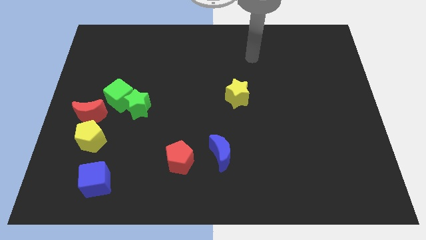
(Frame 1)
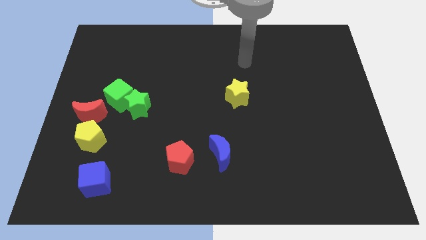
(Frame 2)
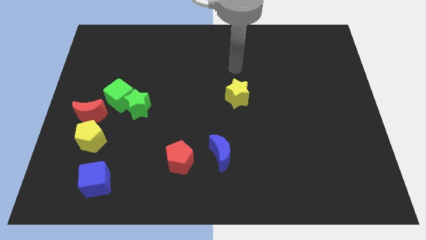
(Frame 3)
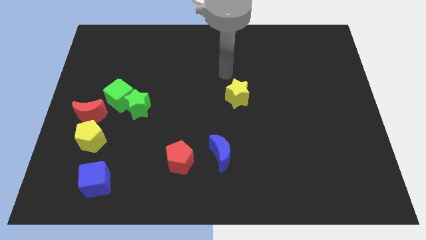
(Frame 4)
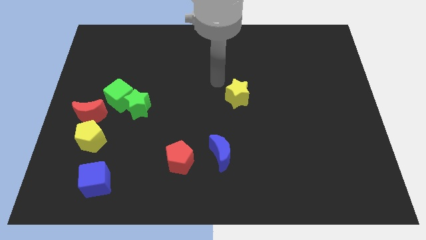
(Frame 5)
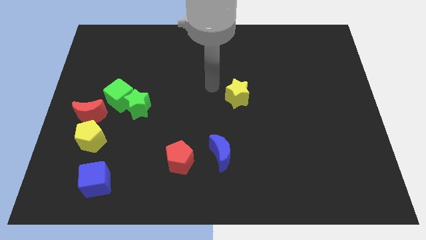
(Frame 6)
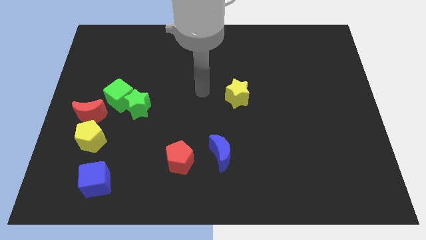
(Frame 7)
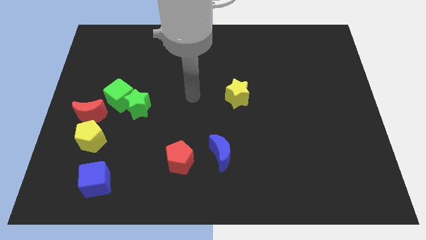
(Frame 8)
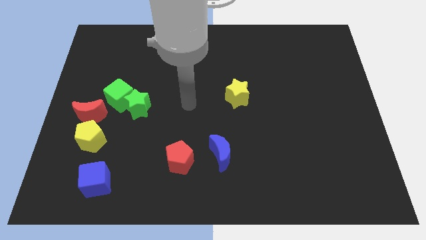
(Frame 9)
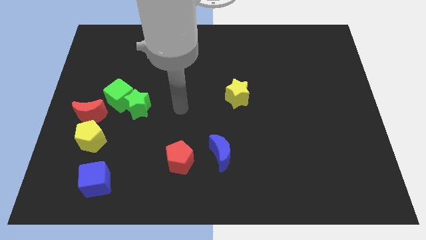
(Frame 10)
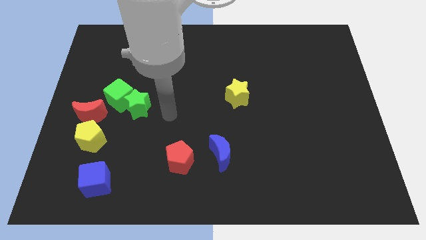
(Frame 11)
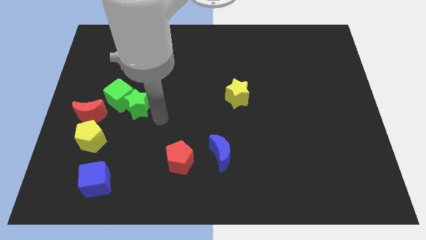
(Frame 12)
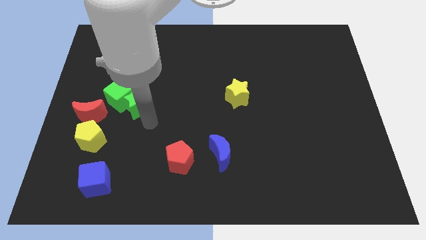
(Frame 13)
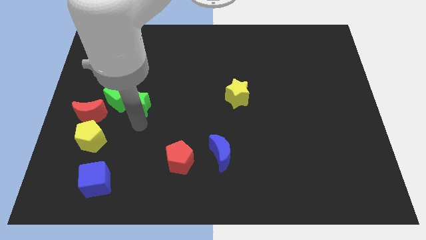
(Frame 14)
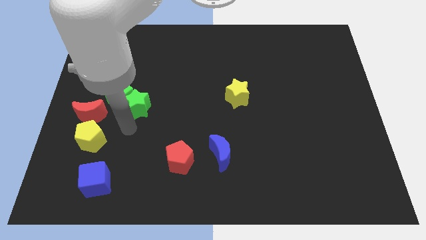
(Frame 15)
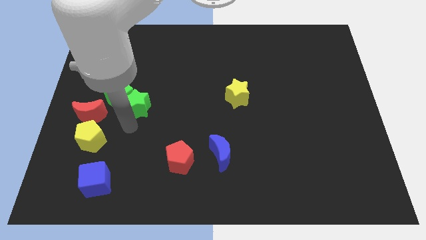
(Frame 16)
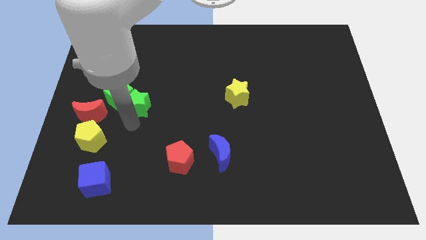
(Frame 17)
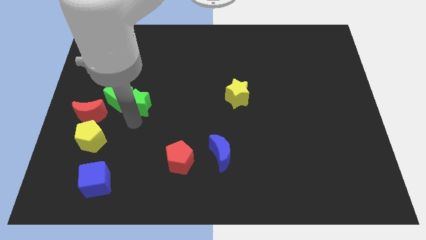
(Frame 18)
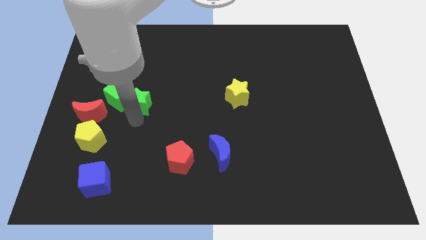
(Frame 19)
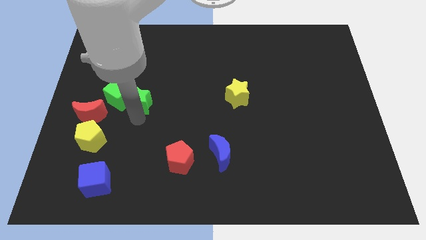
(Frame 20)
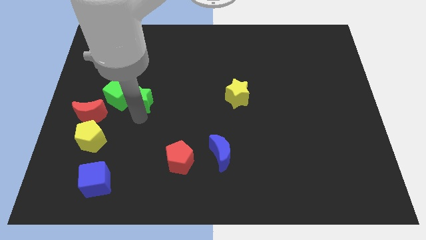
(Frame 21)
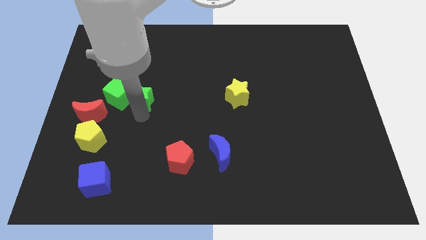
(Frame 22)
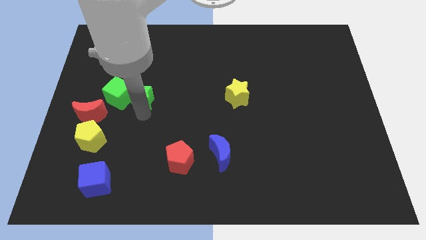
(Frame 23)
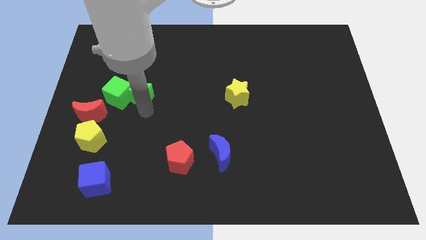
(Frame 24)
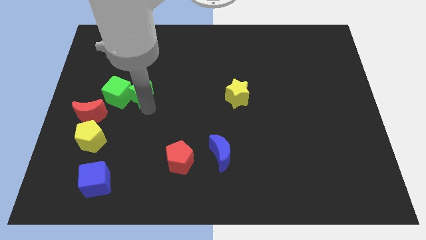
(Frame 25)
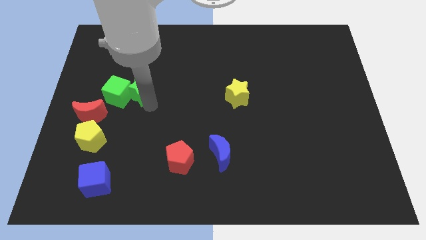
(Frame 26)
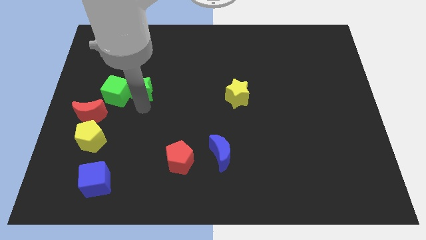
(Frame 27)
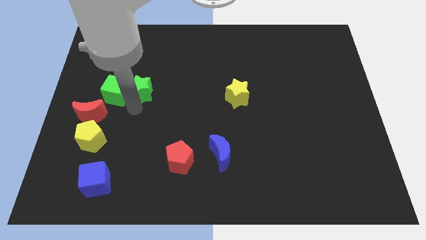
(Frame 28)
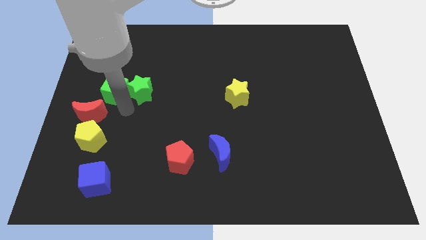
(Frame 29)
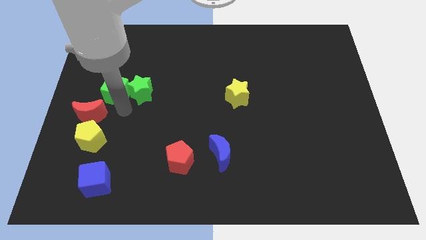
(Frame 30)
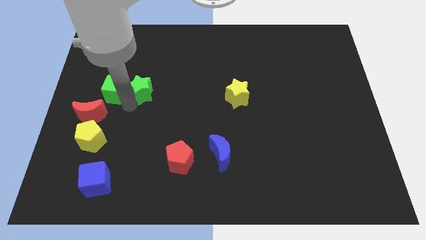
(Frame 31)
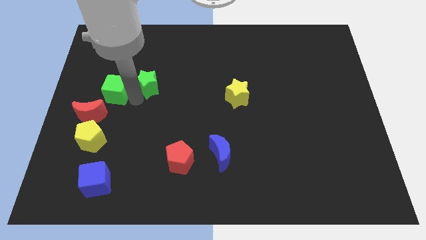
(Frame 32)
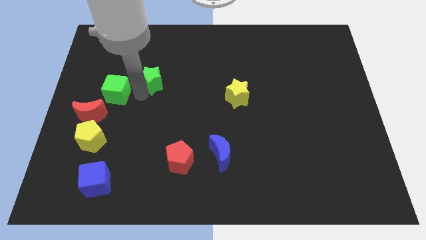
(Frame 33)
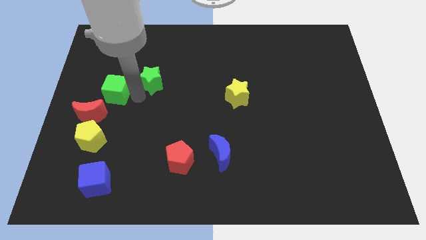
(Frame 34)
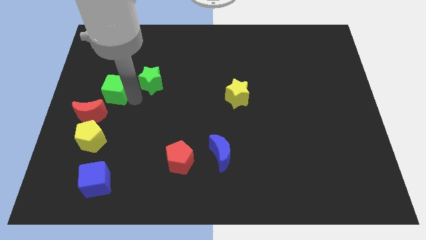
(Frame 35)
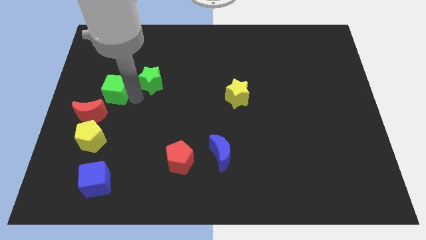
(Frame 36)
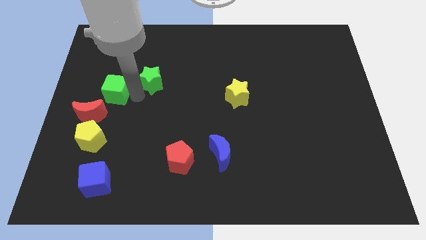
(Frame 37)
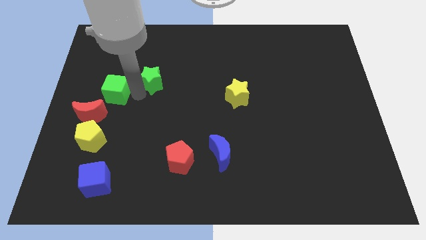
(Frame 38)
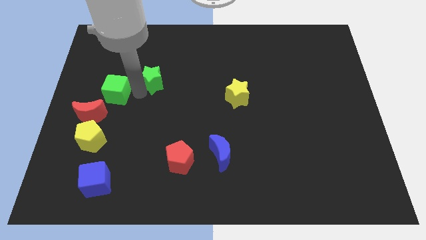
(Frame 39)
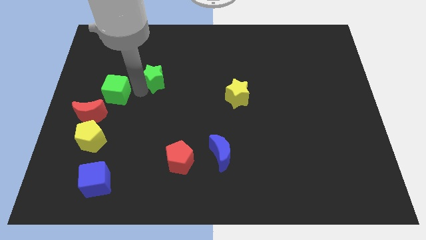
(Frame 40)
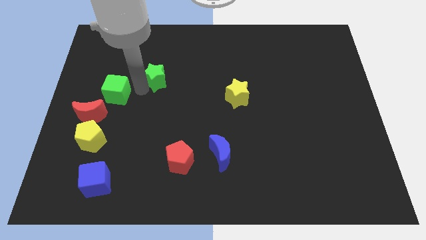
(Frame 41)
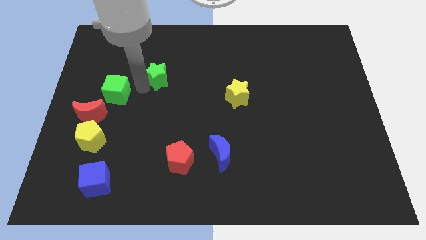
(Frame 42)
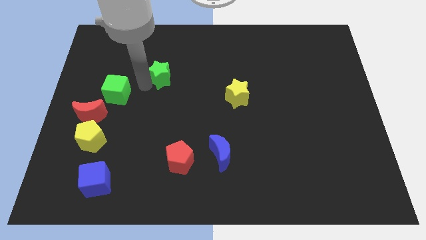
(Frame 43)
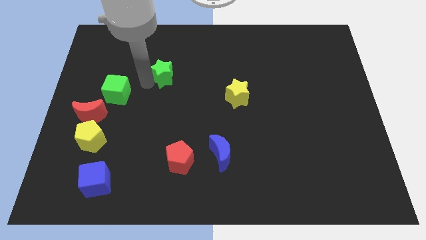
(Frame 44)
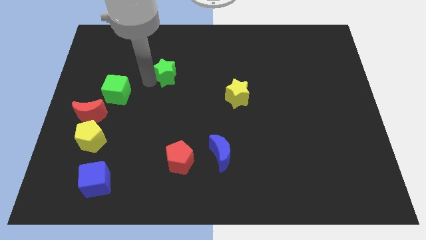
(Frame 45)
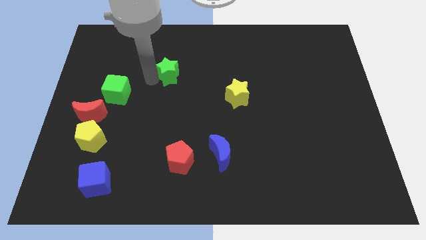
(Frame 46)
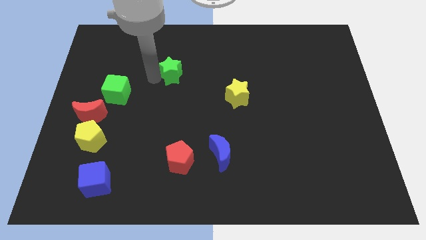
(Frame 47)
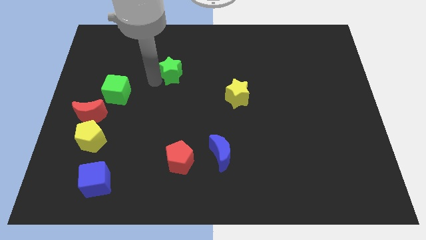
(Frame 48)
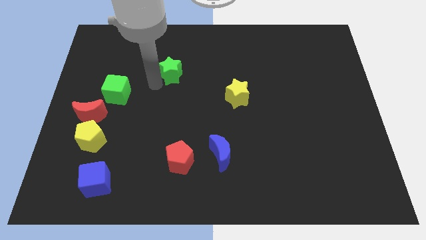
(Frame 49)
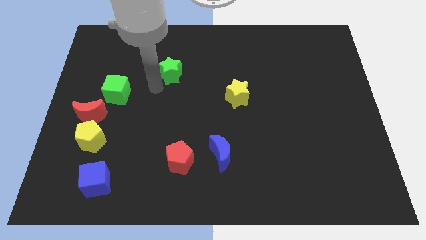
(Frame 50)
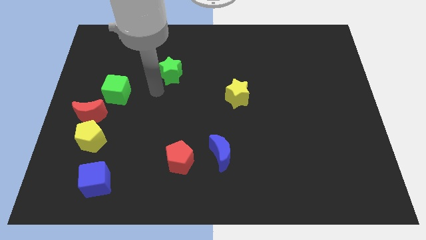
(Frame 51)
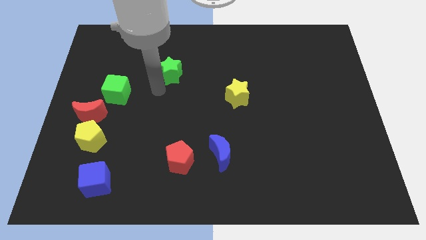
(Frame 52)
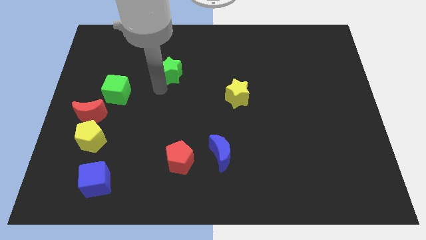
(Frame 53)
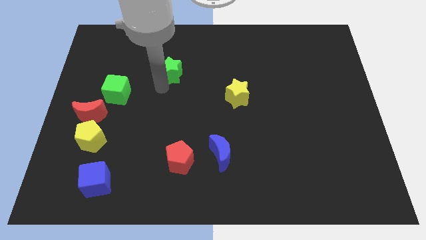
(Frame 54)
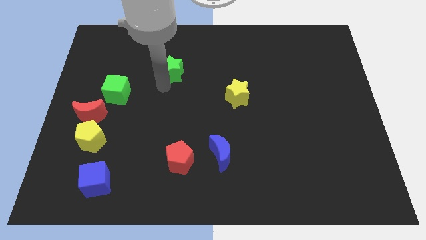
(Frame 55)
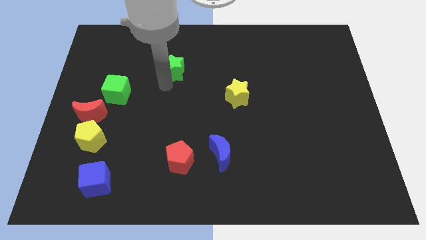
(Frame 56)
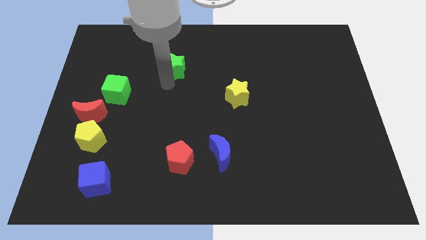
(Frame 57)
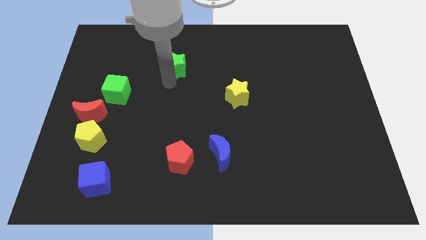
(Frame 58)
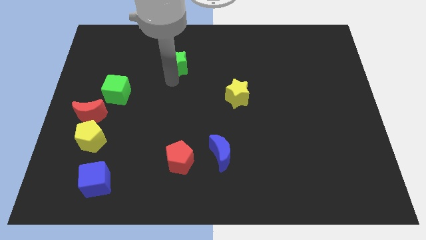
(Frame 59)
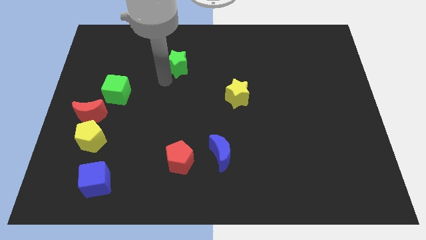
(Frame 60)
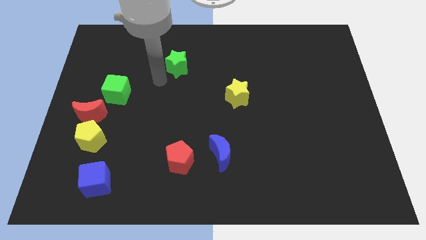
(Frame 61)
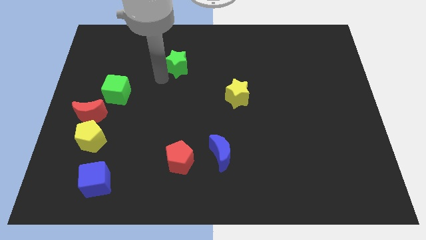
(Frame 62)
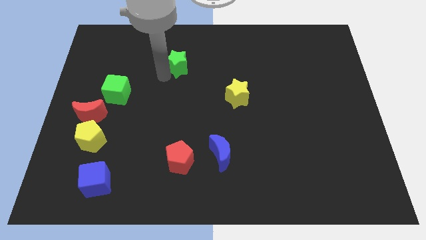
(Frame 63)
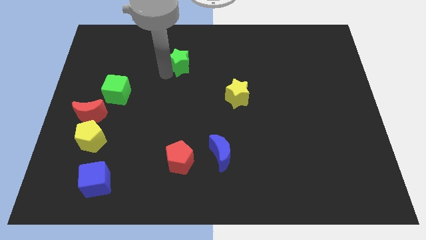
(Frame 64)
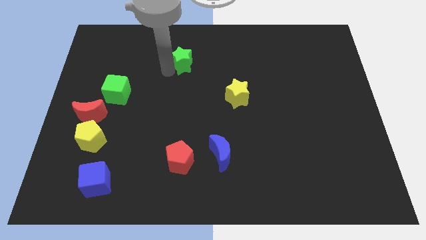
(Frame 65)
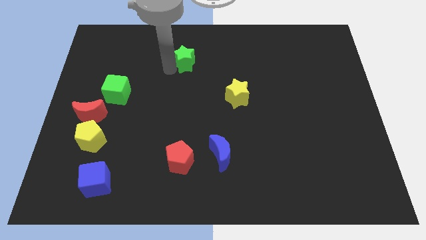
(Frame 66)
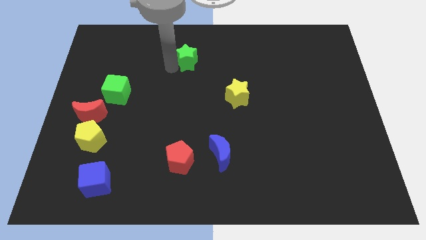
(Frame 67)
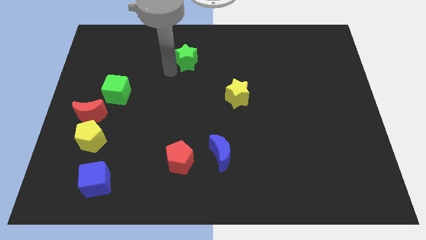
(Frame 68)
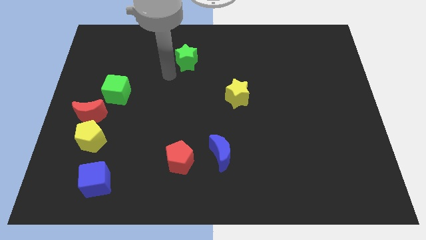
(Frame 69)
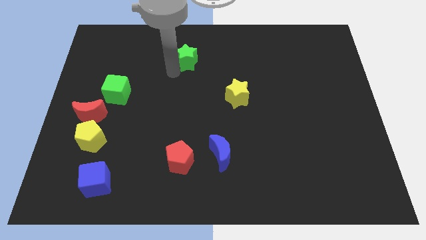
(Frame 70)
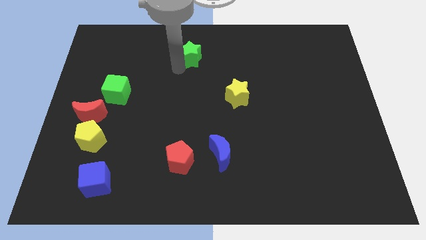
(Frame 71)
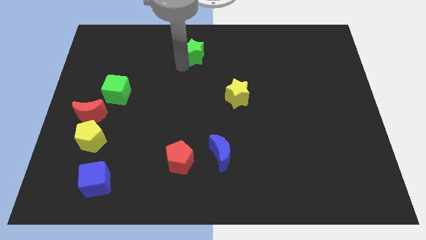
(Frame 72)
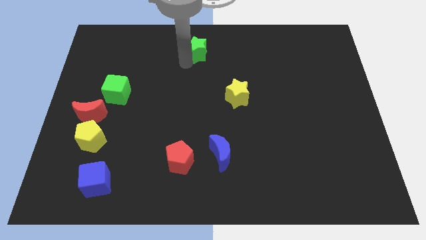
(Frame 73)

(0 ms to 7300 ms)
put the green star to the towards your base

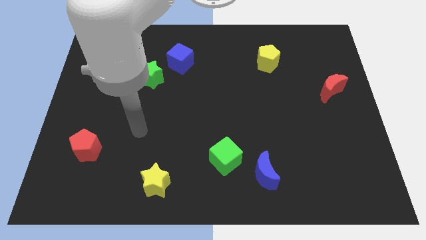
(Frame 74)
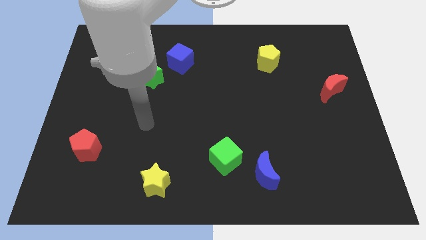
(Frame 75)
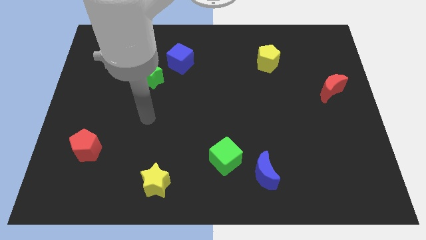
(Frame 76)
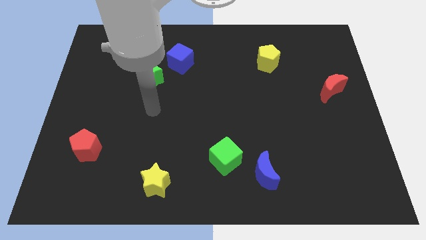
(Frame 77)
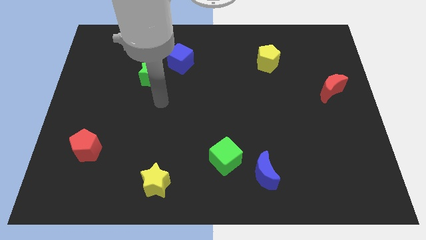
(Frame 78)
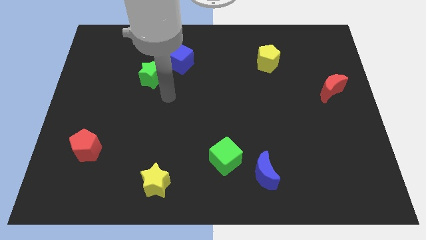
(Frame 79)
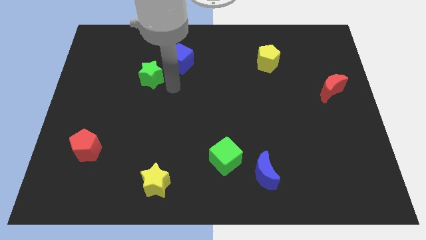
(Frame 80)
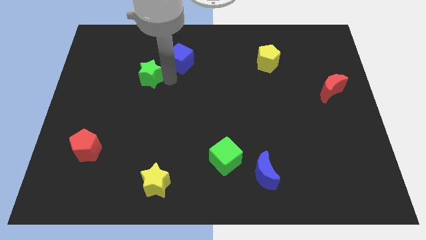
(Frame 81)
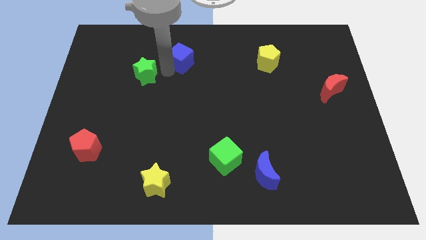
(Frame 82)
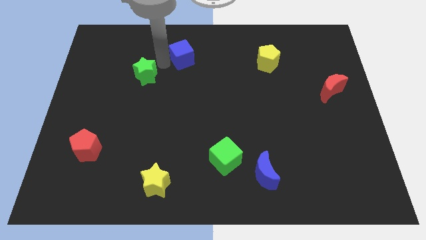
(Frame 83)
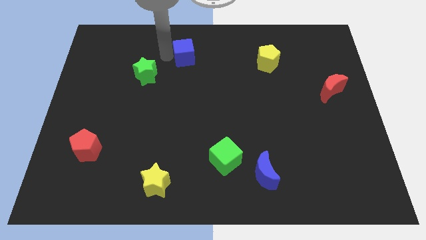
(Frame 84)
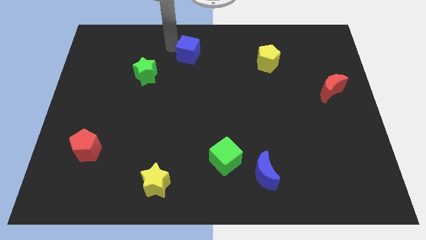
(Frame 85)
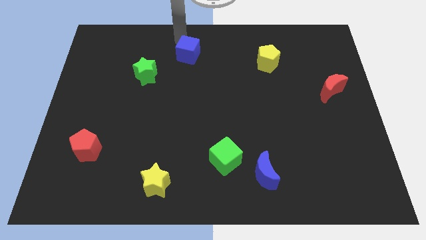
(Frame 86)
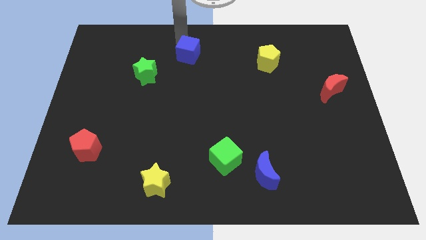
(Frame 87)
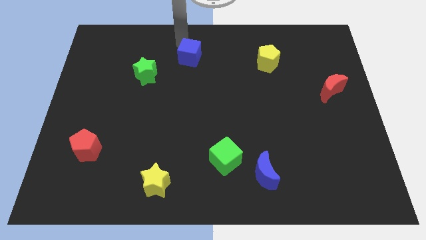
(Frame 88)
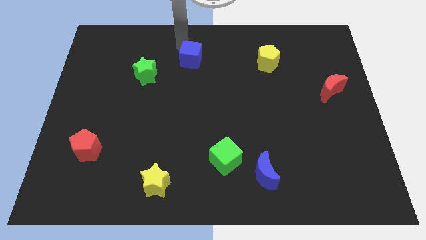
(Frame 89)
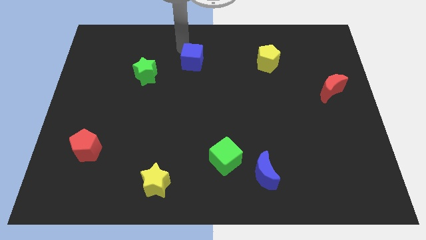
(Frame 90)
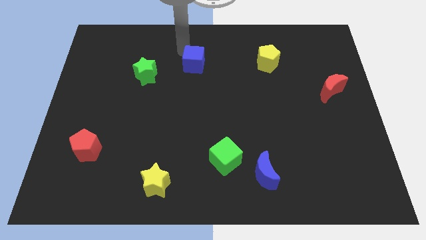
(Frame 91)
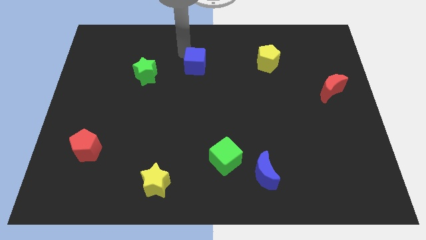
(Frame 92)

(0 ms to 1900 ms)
put the blue cube to the center
